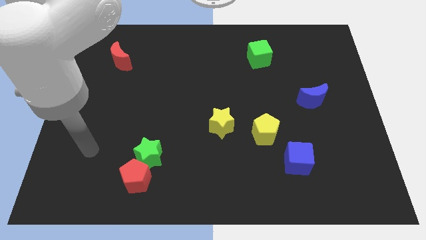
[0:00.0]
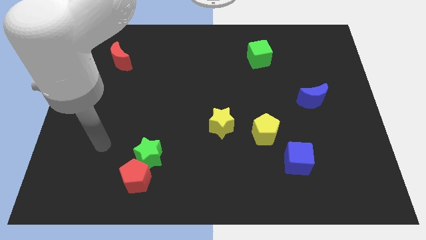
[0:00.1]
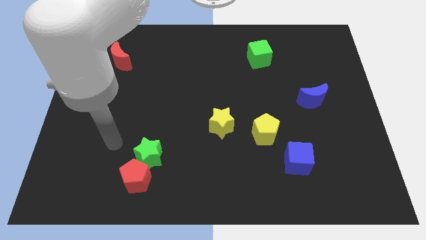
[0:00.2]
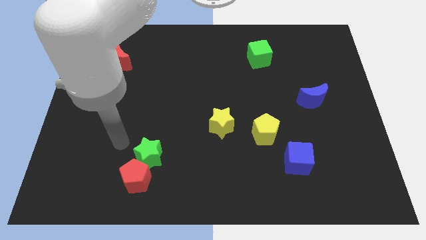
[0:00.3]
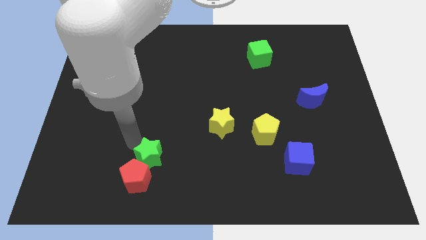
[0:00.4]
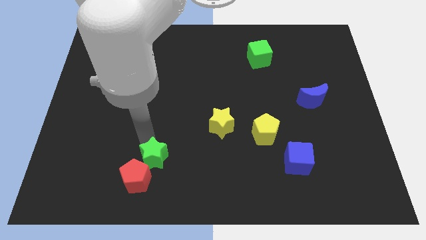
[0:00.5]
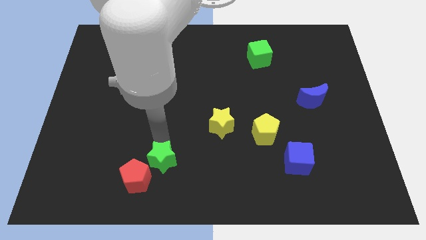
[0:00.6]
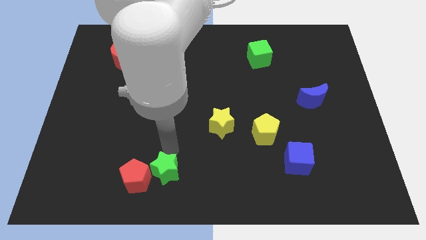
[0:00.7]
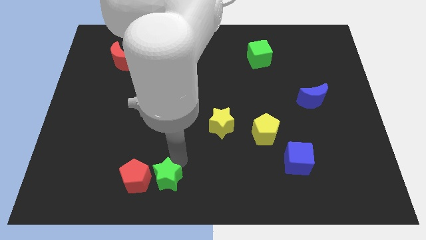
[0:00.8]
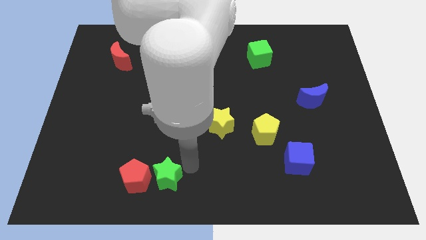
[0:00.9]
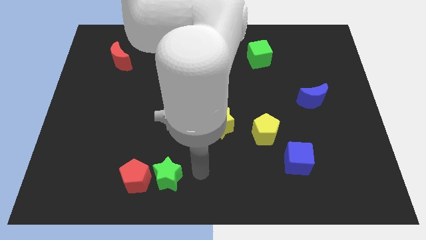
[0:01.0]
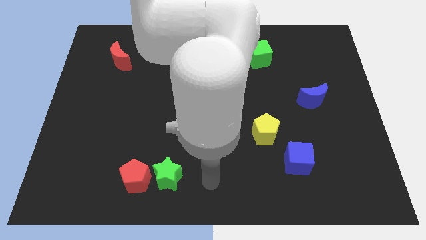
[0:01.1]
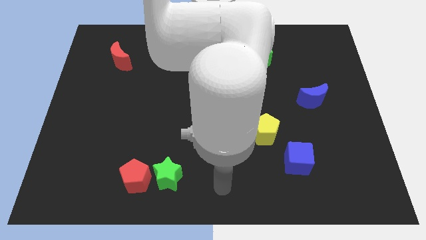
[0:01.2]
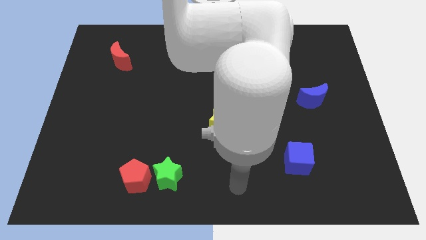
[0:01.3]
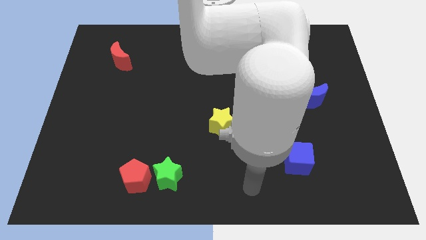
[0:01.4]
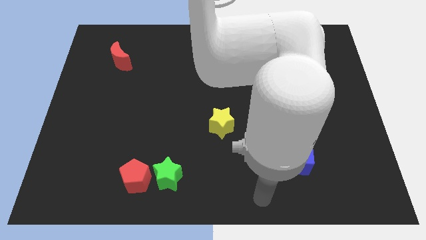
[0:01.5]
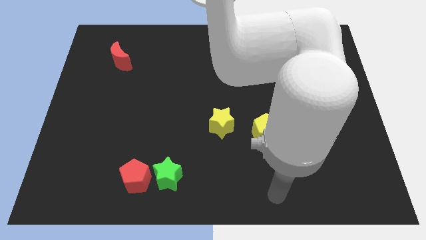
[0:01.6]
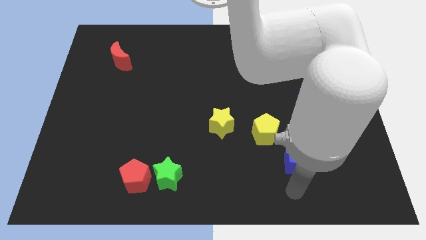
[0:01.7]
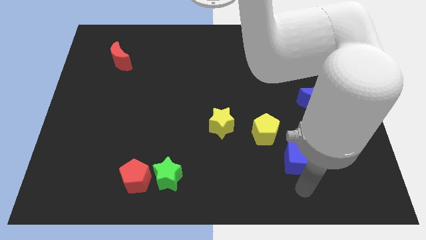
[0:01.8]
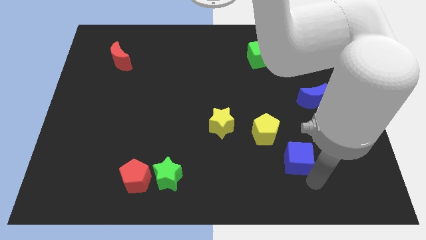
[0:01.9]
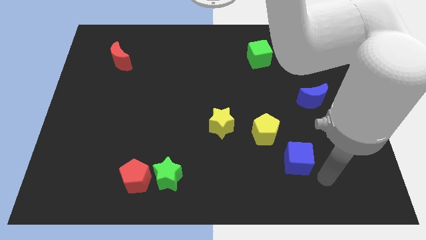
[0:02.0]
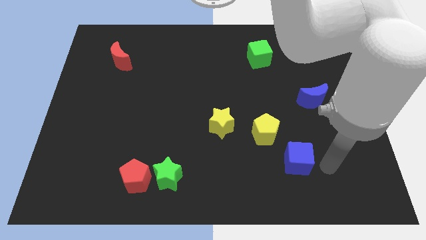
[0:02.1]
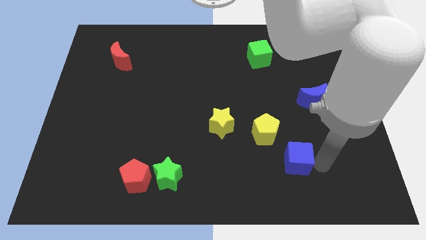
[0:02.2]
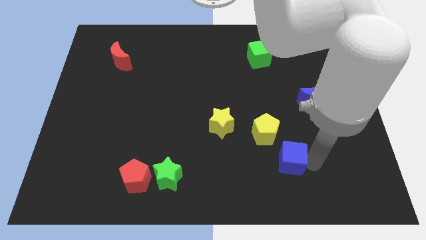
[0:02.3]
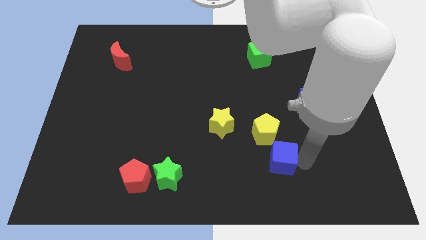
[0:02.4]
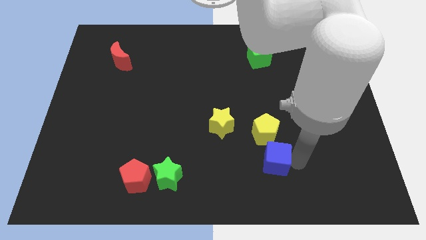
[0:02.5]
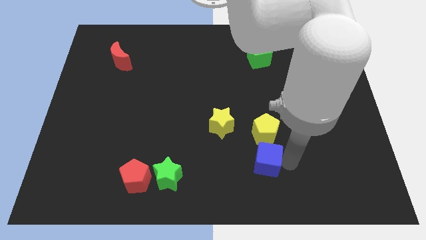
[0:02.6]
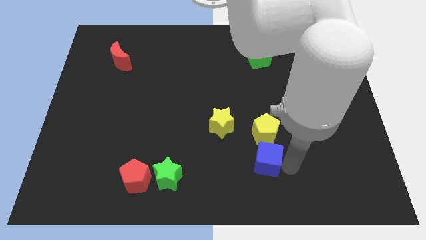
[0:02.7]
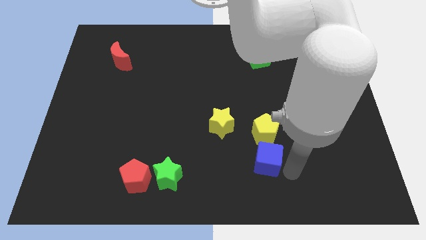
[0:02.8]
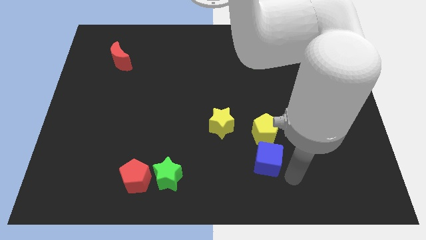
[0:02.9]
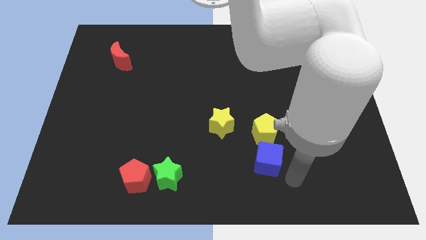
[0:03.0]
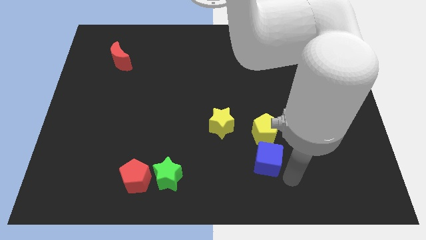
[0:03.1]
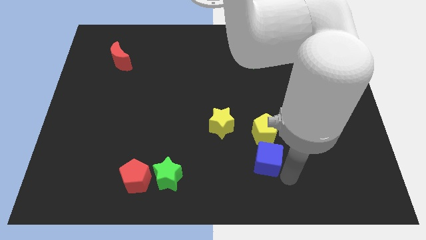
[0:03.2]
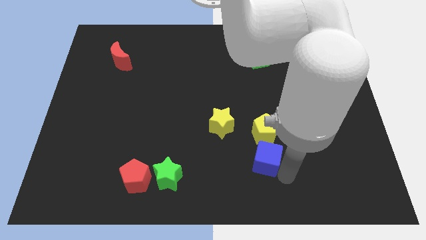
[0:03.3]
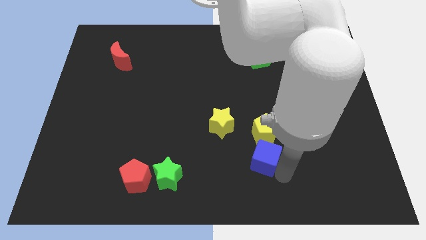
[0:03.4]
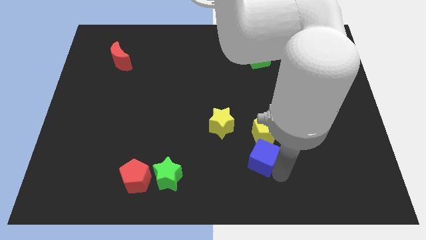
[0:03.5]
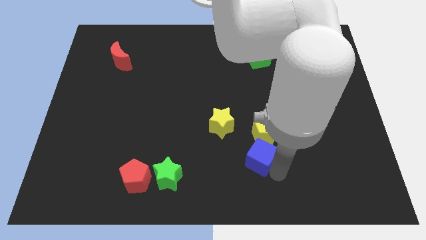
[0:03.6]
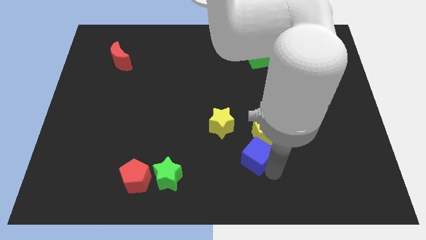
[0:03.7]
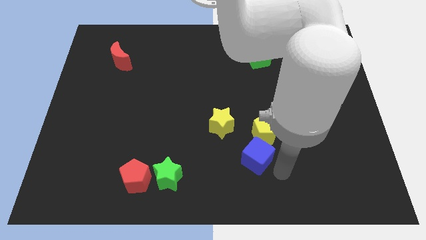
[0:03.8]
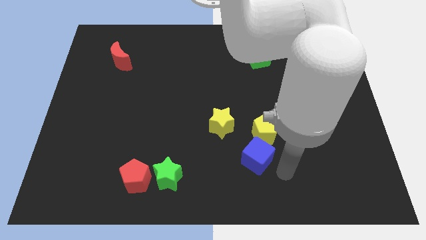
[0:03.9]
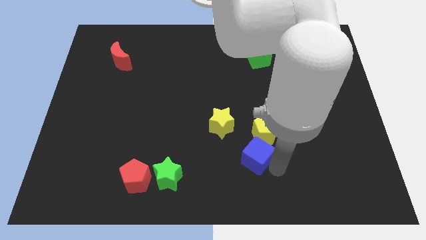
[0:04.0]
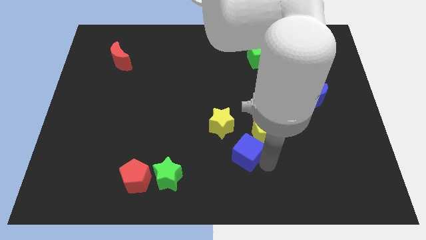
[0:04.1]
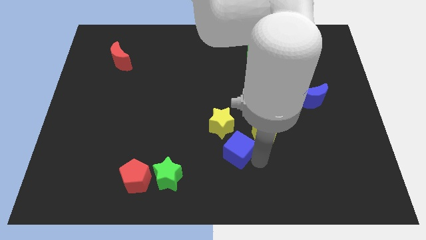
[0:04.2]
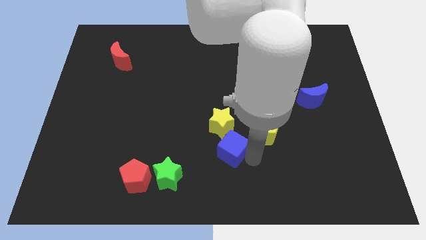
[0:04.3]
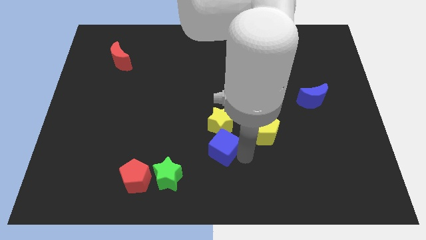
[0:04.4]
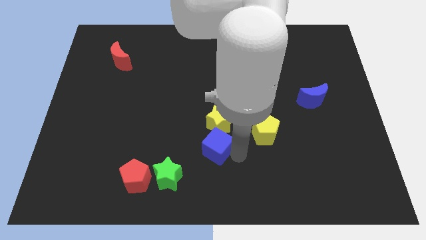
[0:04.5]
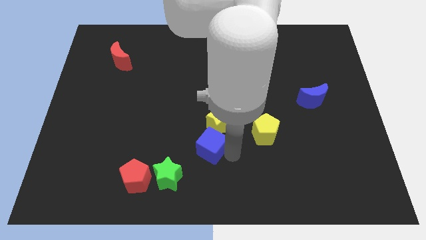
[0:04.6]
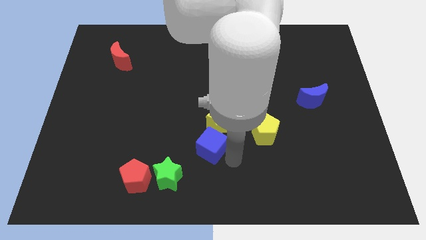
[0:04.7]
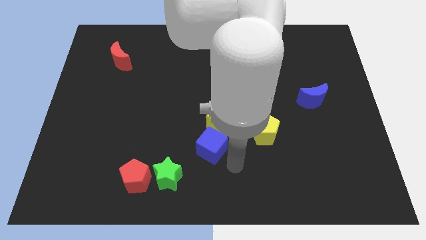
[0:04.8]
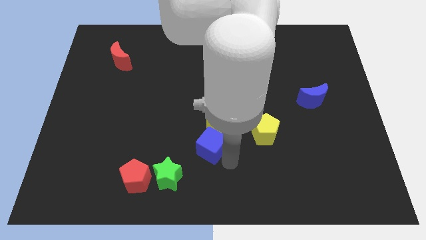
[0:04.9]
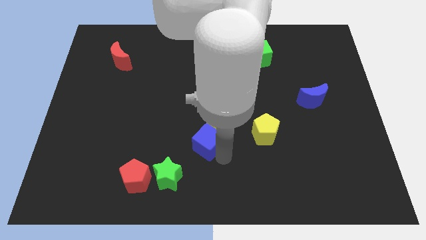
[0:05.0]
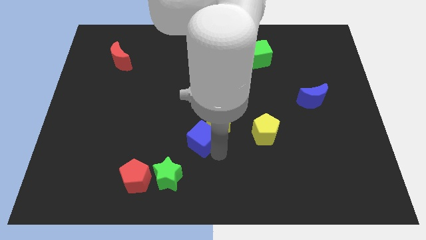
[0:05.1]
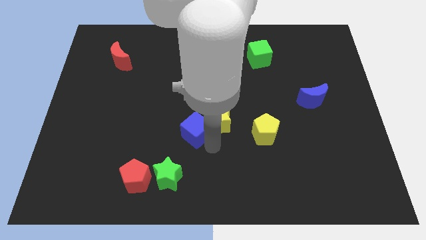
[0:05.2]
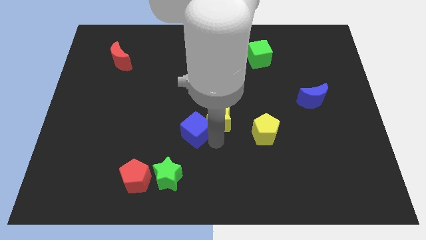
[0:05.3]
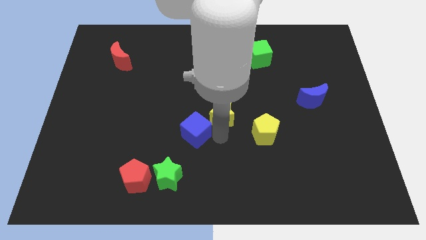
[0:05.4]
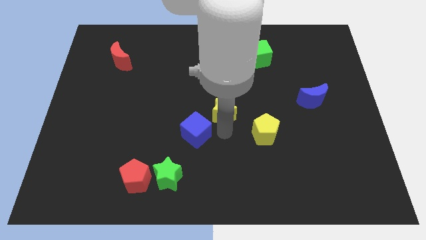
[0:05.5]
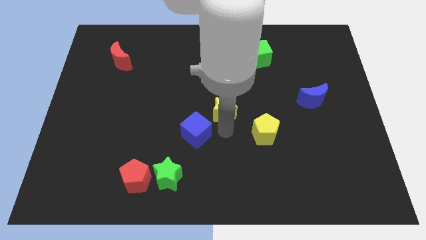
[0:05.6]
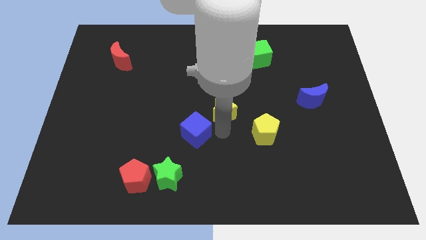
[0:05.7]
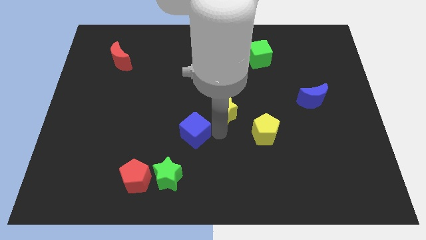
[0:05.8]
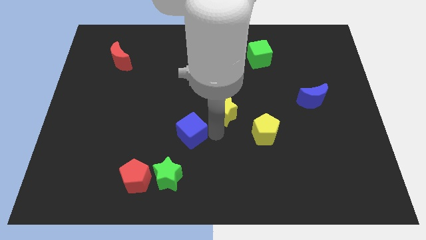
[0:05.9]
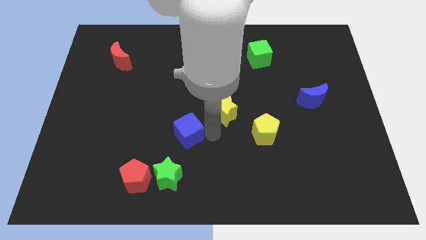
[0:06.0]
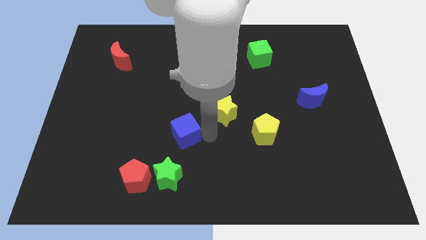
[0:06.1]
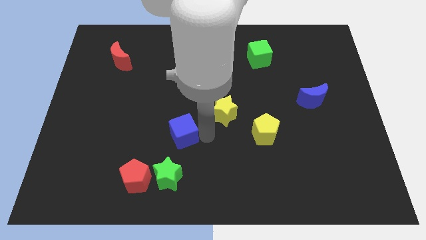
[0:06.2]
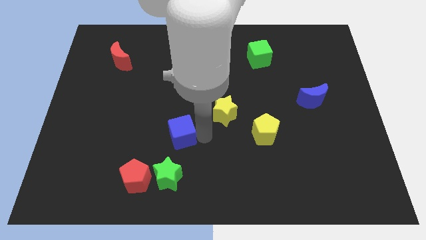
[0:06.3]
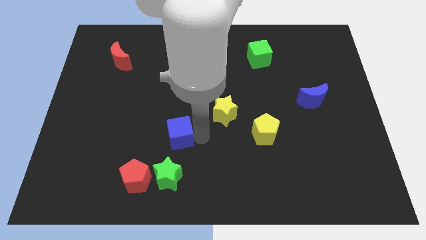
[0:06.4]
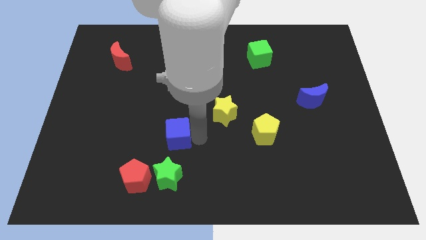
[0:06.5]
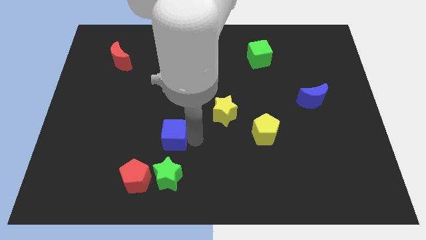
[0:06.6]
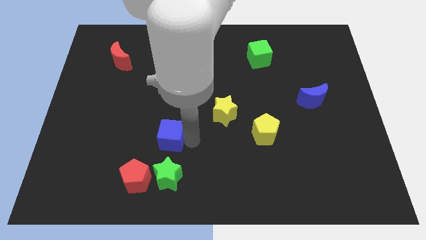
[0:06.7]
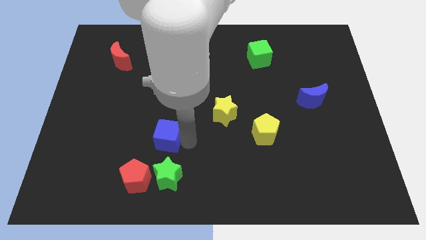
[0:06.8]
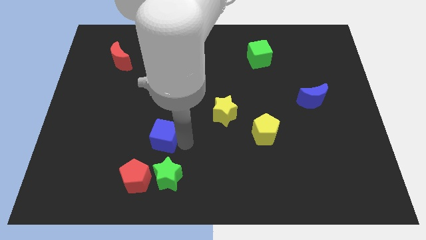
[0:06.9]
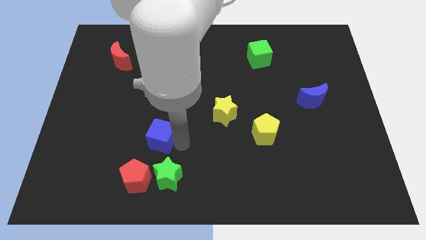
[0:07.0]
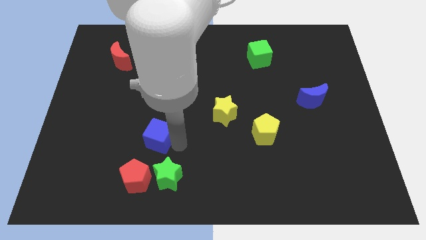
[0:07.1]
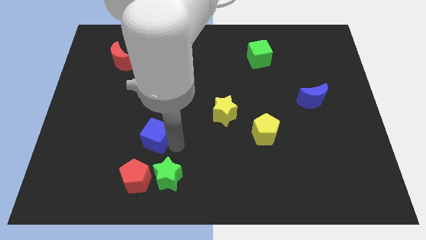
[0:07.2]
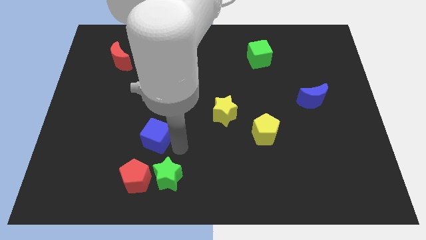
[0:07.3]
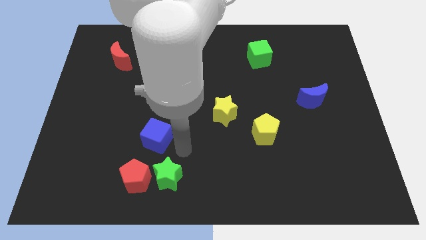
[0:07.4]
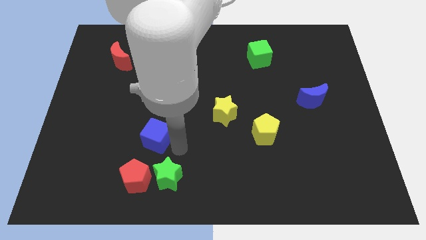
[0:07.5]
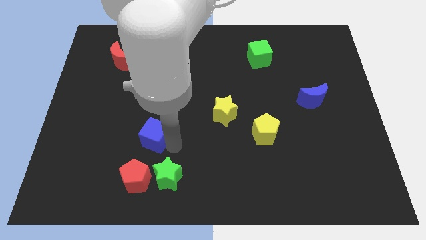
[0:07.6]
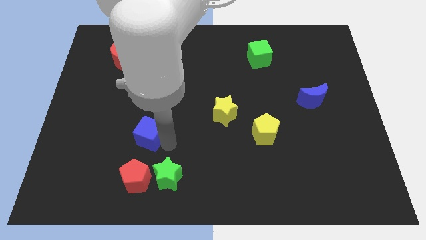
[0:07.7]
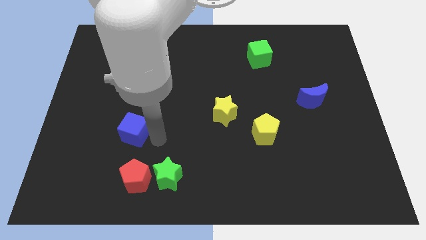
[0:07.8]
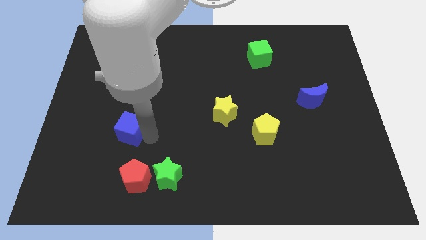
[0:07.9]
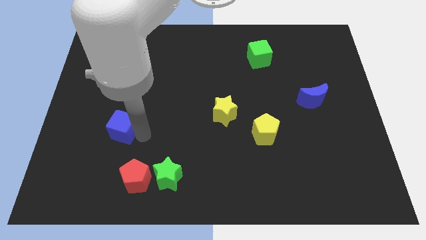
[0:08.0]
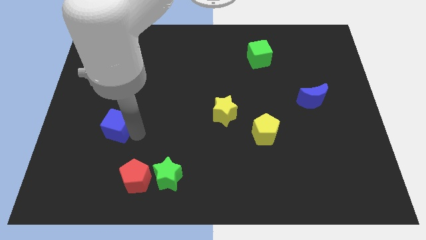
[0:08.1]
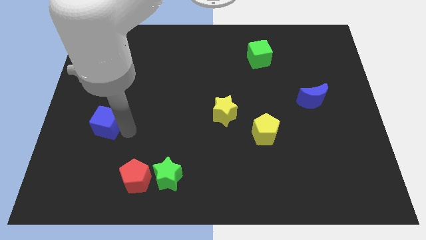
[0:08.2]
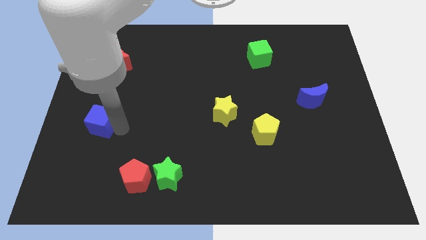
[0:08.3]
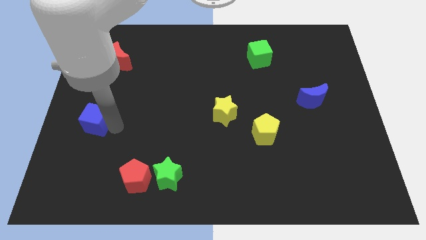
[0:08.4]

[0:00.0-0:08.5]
push the blue cube to the center left
